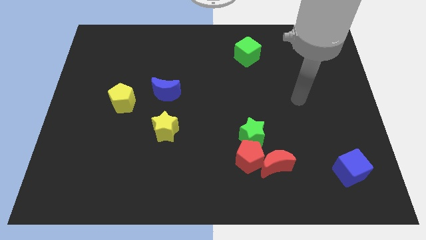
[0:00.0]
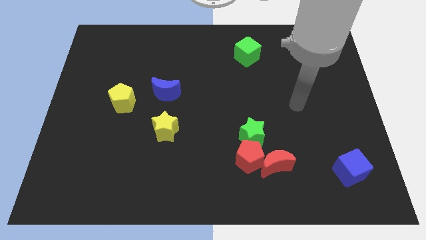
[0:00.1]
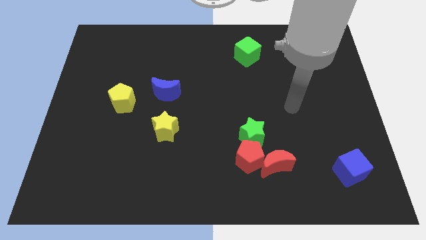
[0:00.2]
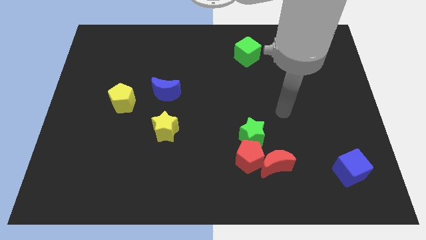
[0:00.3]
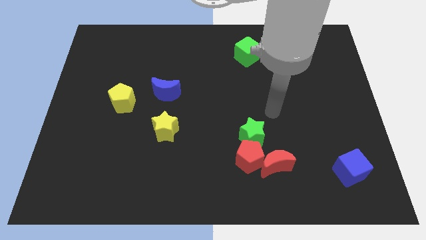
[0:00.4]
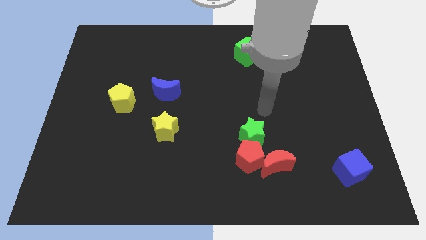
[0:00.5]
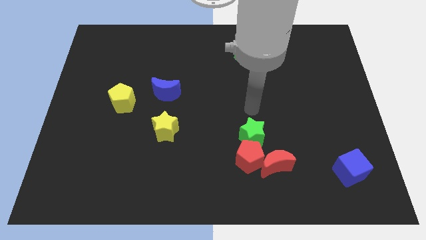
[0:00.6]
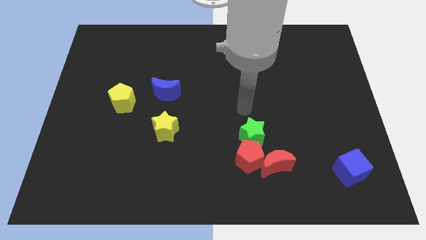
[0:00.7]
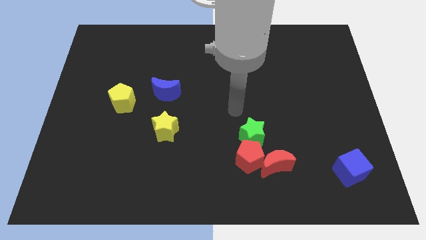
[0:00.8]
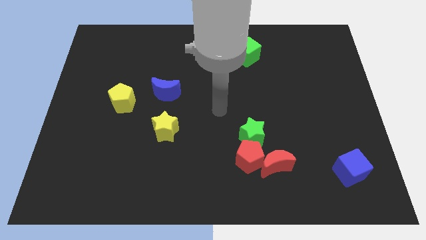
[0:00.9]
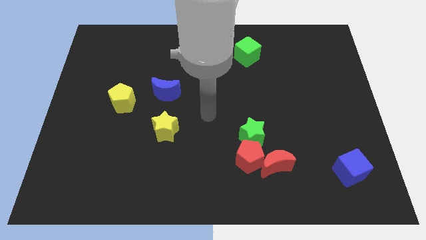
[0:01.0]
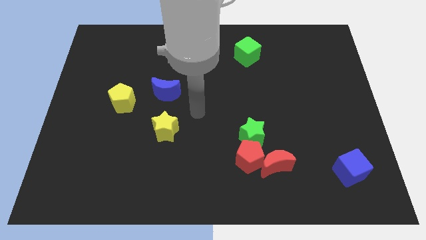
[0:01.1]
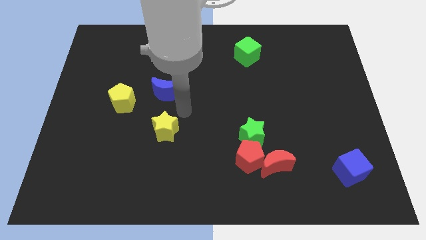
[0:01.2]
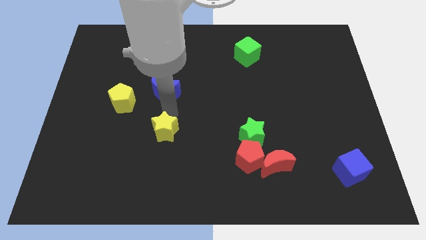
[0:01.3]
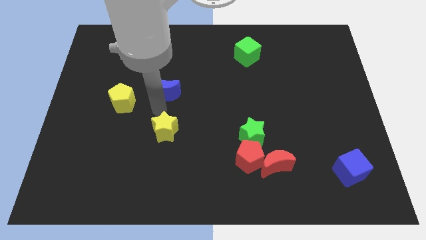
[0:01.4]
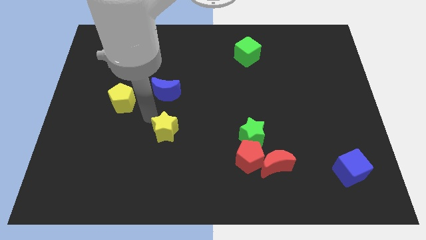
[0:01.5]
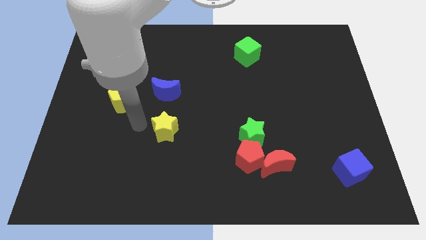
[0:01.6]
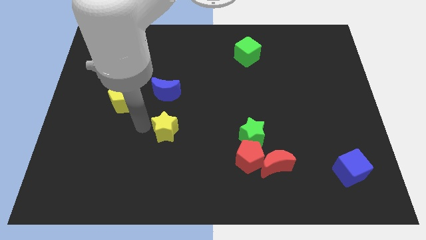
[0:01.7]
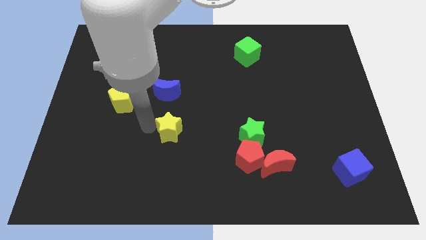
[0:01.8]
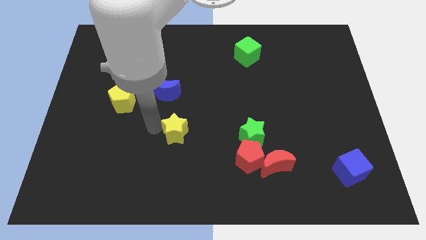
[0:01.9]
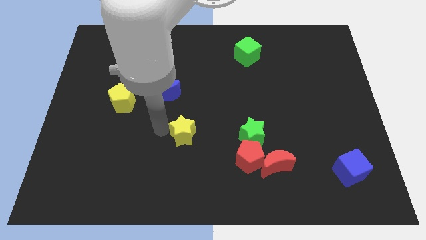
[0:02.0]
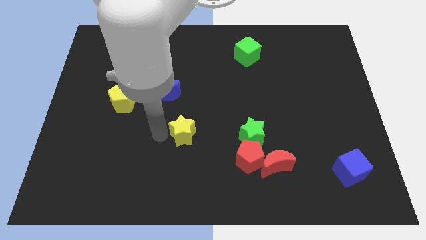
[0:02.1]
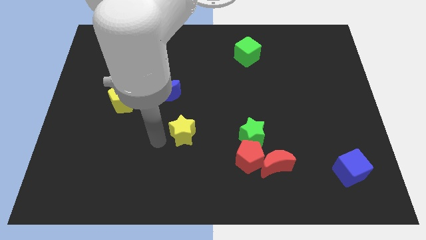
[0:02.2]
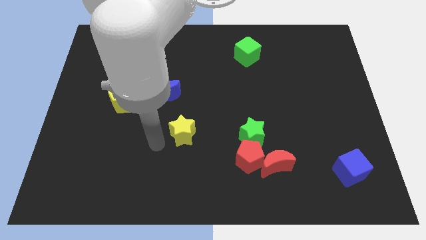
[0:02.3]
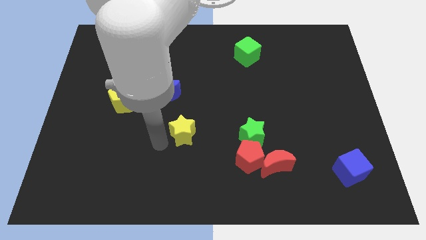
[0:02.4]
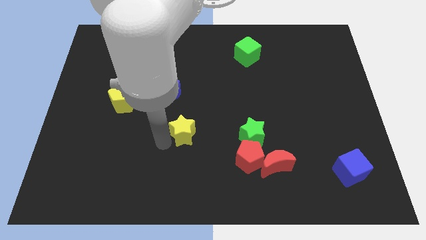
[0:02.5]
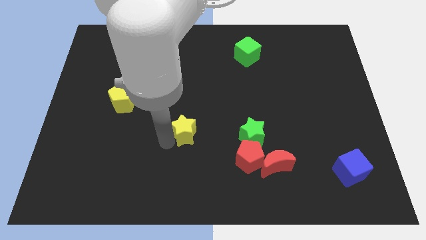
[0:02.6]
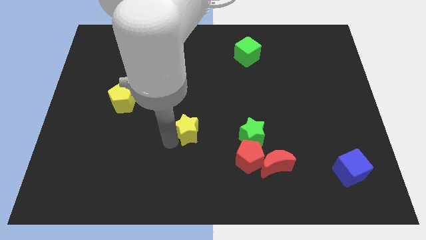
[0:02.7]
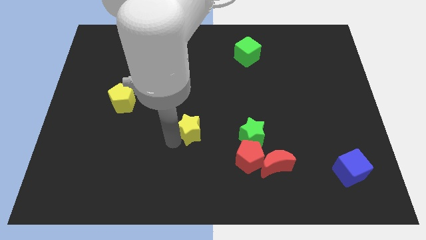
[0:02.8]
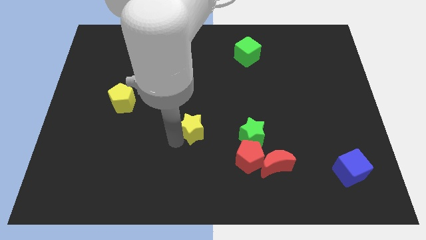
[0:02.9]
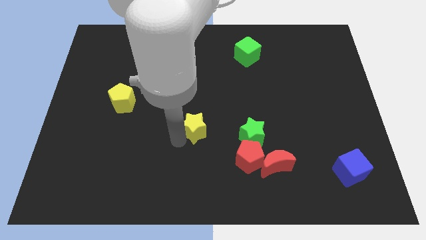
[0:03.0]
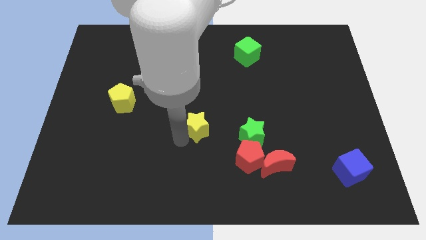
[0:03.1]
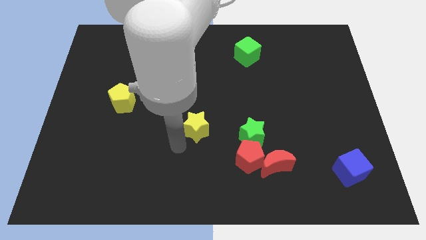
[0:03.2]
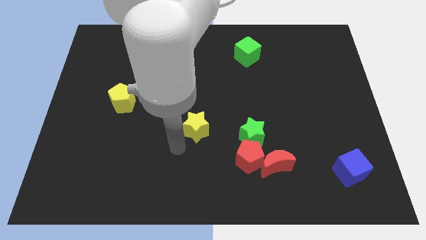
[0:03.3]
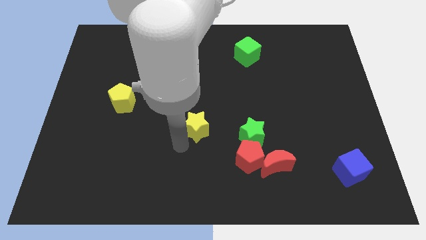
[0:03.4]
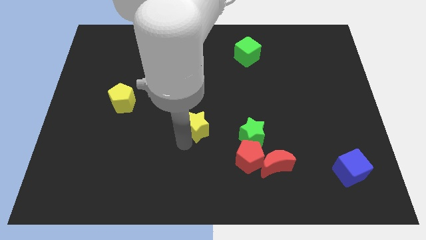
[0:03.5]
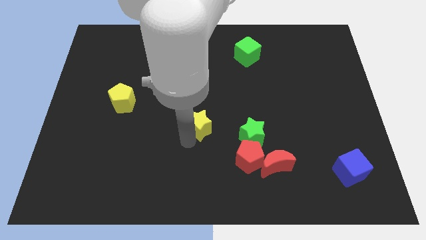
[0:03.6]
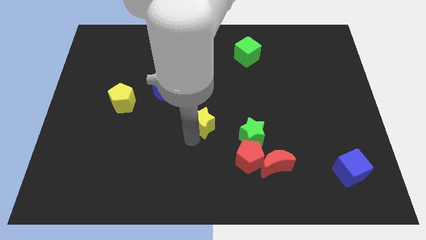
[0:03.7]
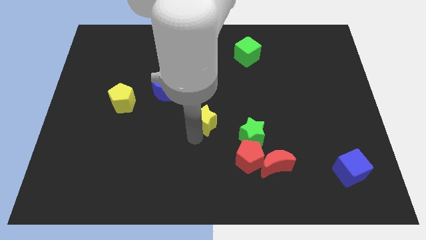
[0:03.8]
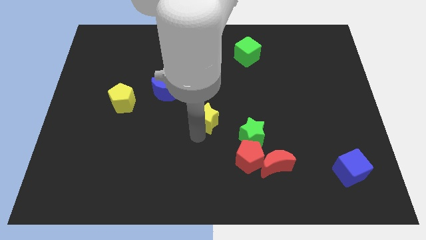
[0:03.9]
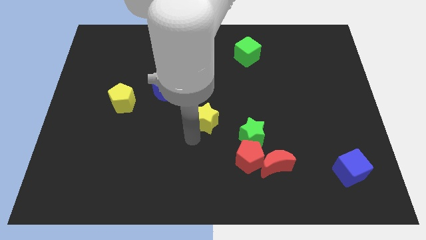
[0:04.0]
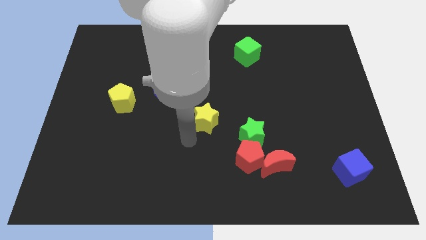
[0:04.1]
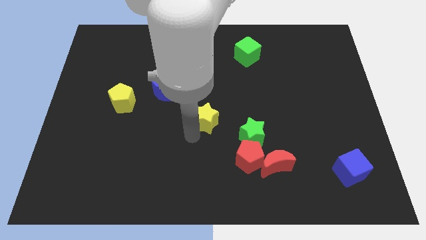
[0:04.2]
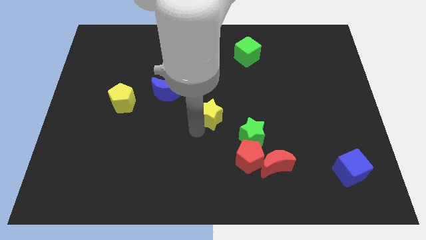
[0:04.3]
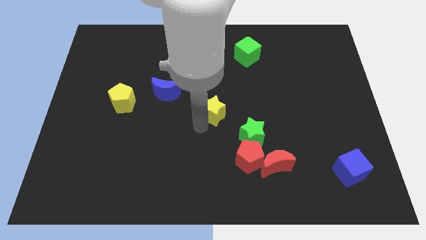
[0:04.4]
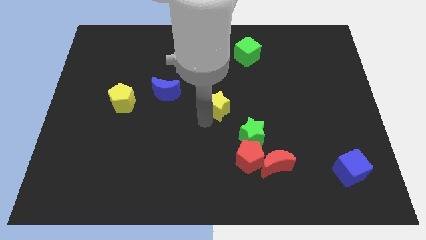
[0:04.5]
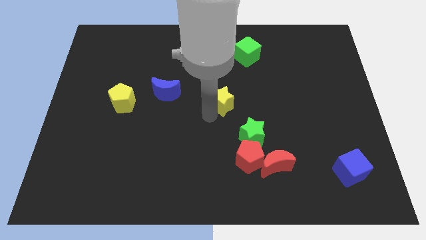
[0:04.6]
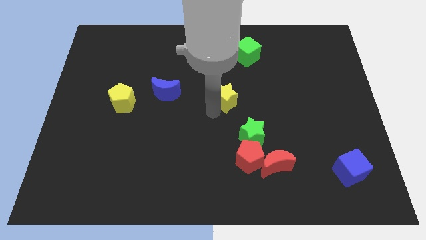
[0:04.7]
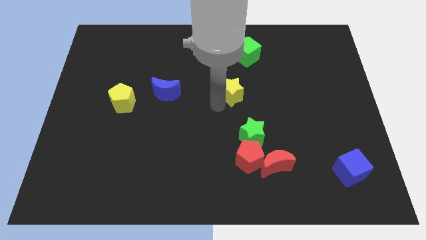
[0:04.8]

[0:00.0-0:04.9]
slide the yellow star to the bottom of the green cube

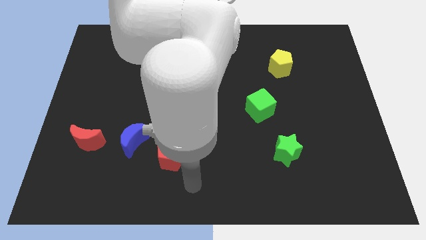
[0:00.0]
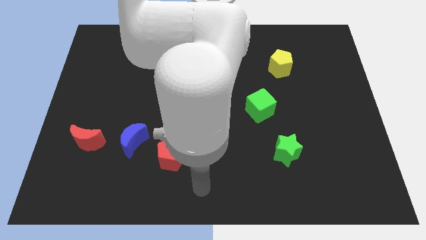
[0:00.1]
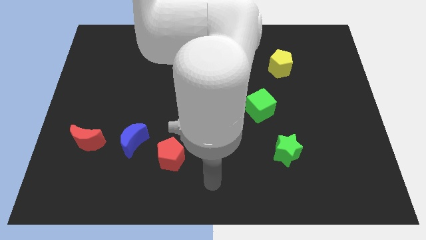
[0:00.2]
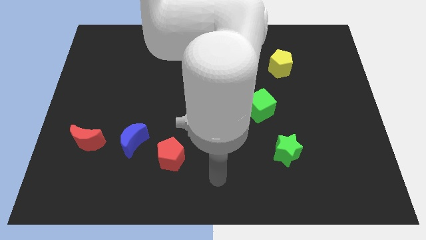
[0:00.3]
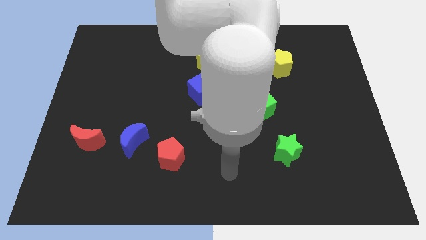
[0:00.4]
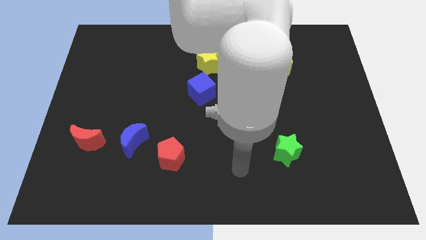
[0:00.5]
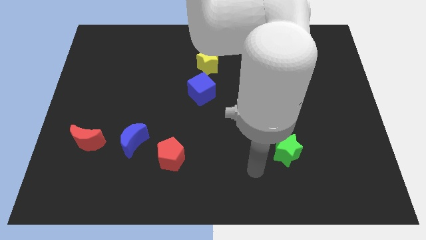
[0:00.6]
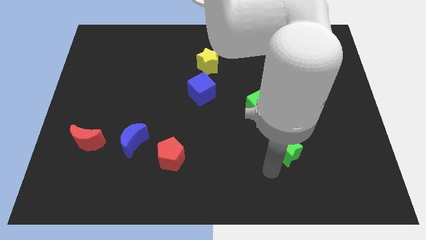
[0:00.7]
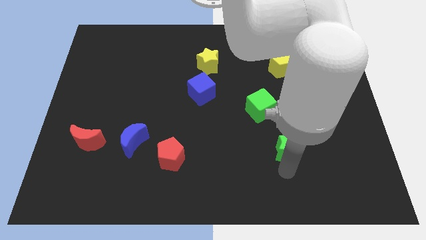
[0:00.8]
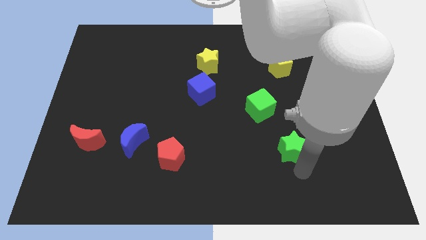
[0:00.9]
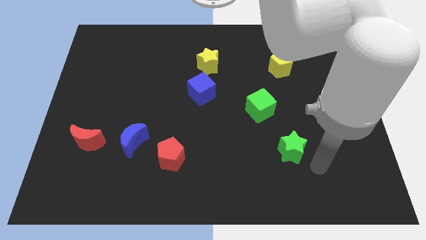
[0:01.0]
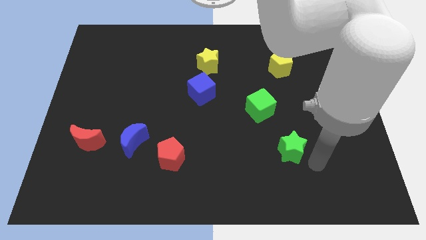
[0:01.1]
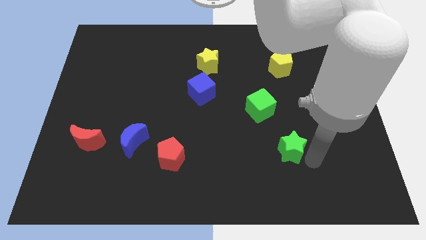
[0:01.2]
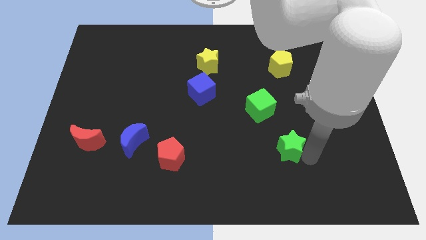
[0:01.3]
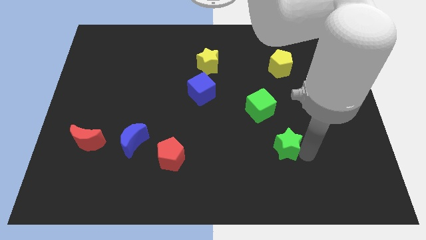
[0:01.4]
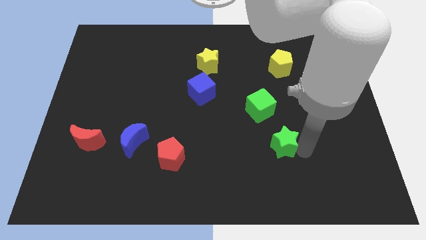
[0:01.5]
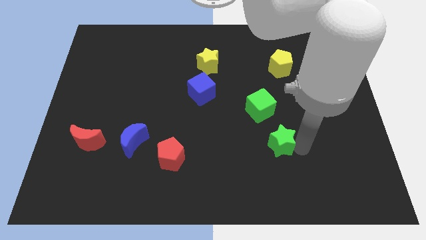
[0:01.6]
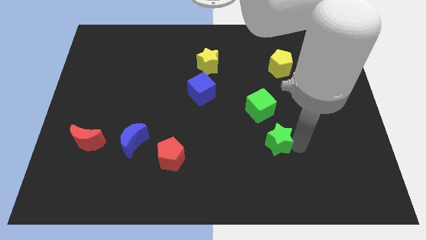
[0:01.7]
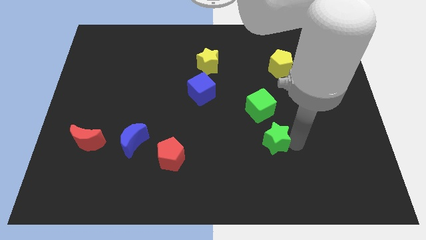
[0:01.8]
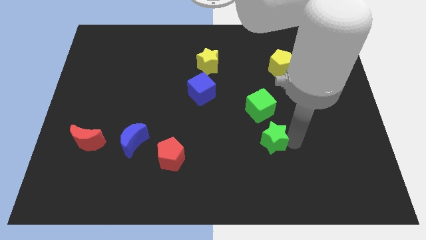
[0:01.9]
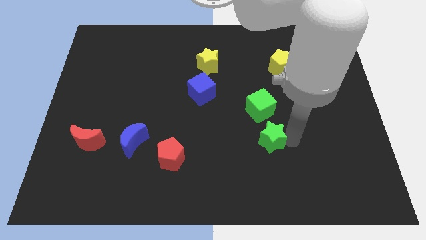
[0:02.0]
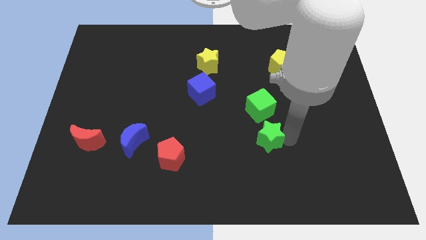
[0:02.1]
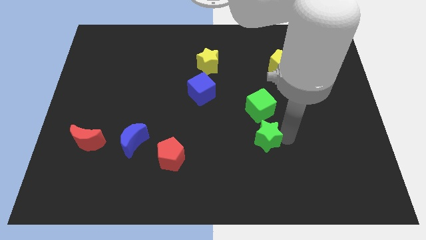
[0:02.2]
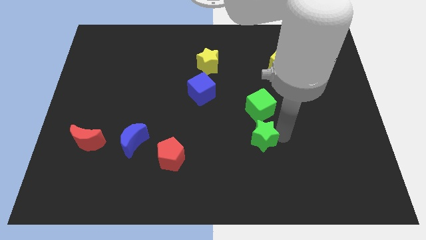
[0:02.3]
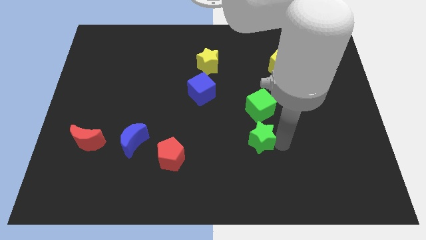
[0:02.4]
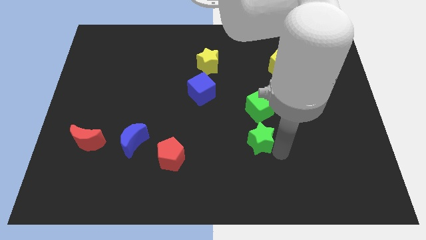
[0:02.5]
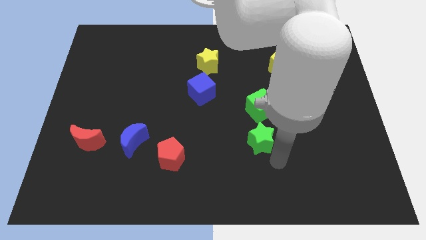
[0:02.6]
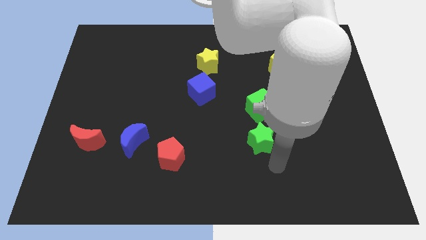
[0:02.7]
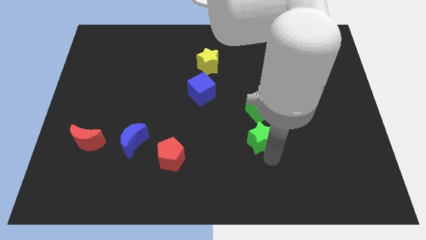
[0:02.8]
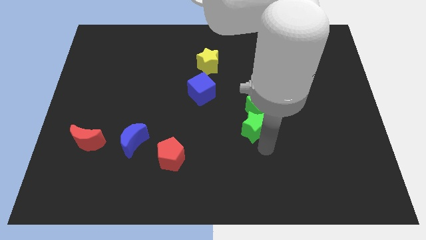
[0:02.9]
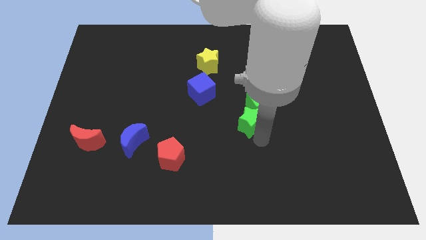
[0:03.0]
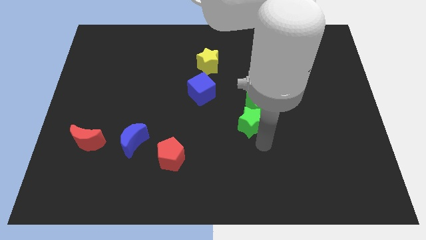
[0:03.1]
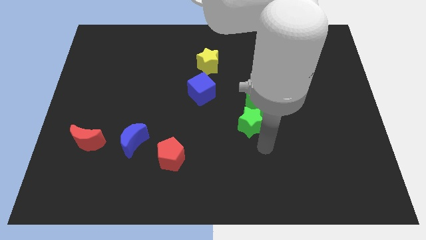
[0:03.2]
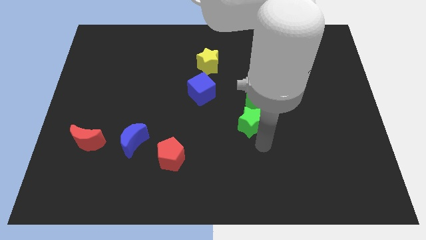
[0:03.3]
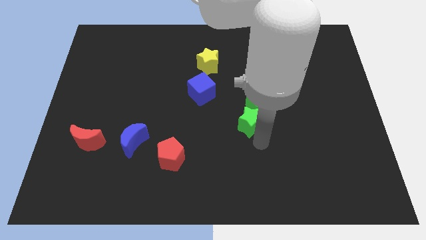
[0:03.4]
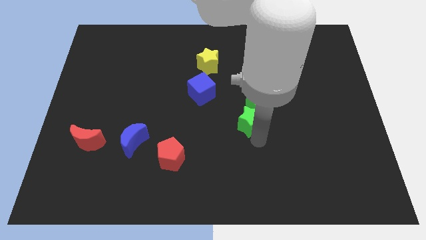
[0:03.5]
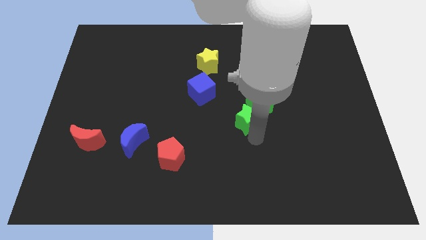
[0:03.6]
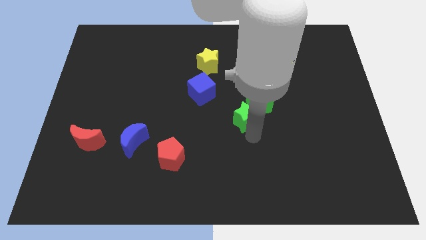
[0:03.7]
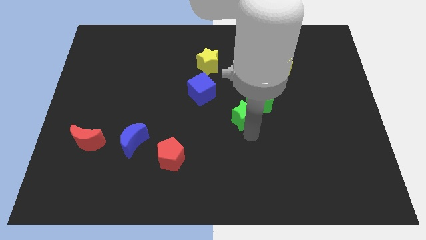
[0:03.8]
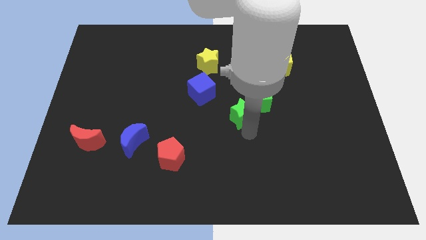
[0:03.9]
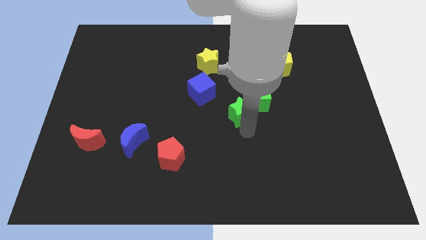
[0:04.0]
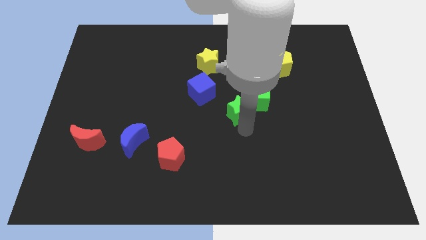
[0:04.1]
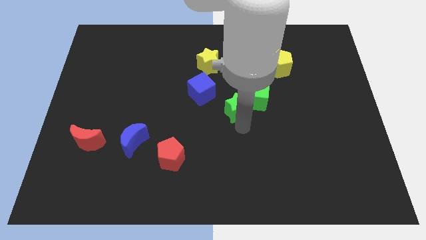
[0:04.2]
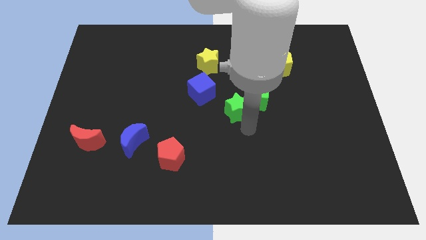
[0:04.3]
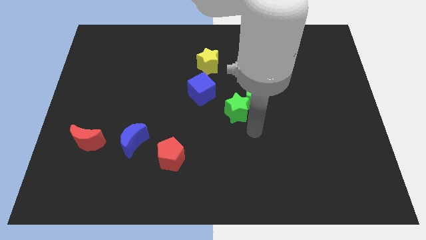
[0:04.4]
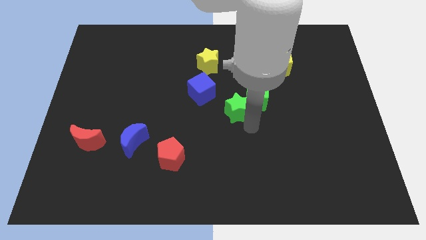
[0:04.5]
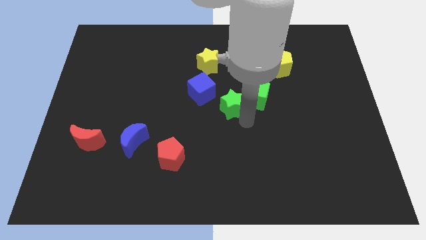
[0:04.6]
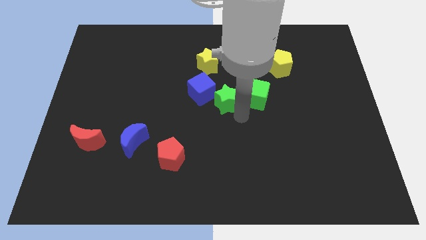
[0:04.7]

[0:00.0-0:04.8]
move the green star to the bottom side of the yellow star
